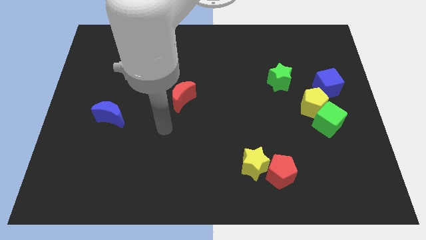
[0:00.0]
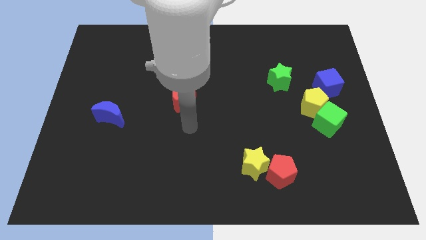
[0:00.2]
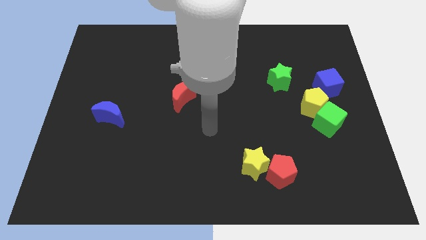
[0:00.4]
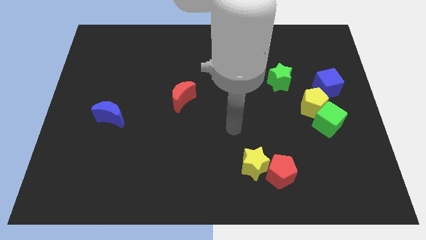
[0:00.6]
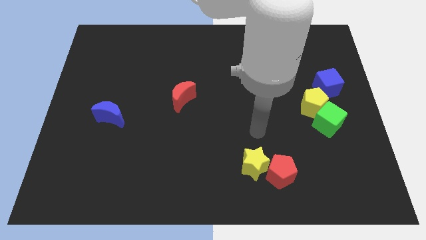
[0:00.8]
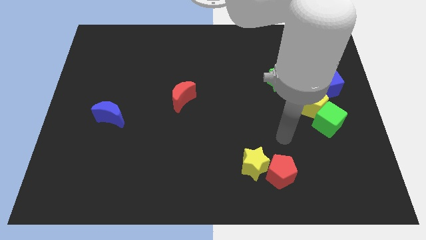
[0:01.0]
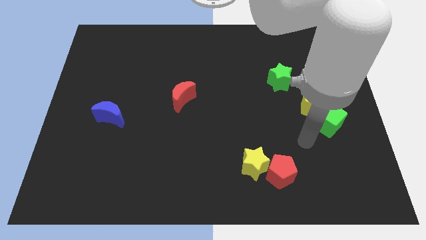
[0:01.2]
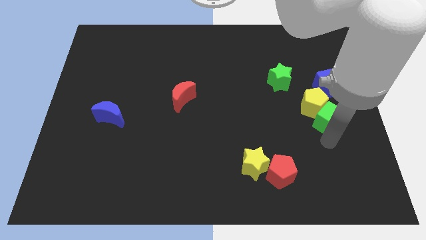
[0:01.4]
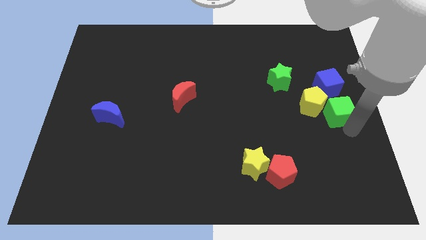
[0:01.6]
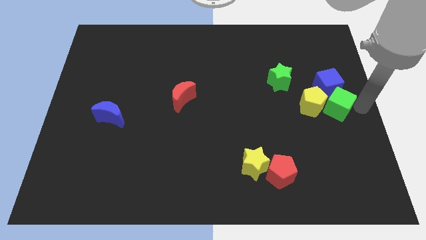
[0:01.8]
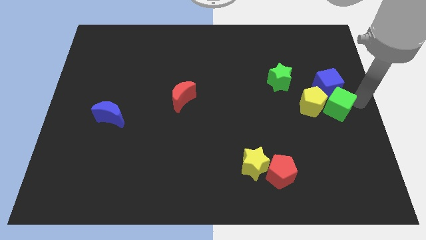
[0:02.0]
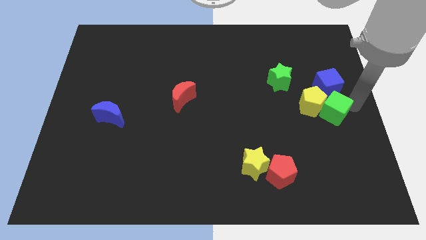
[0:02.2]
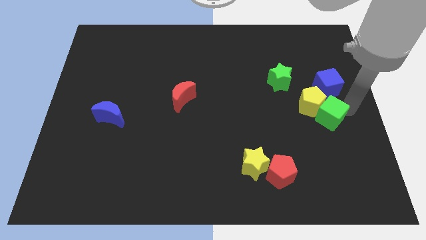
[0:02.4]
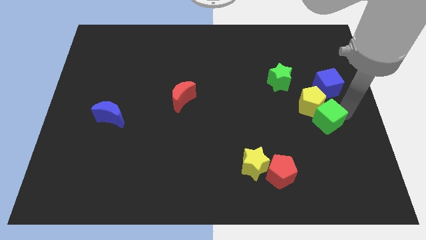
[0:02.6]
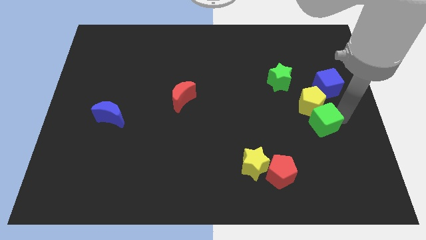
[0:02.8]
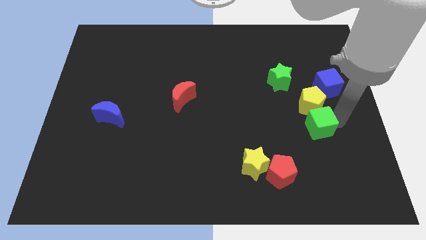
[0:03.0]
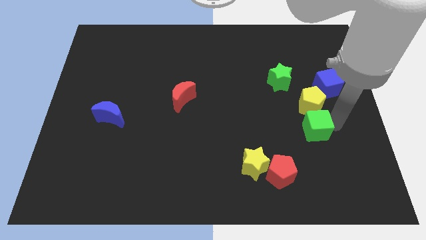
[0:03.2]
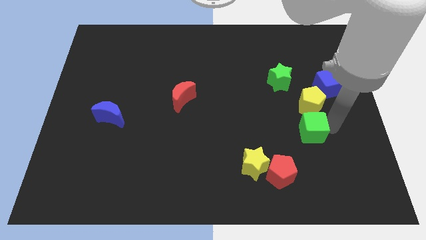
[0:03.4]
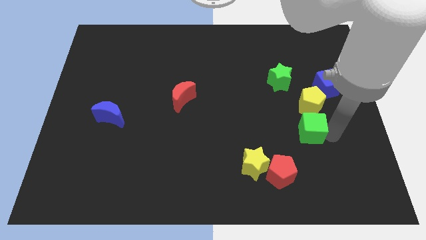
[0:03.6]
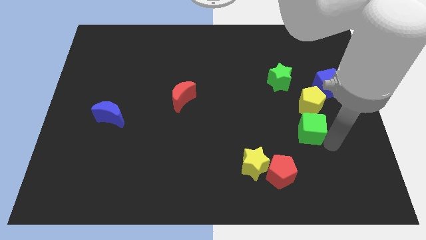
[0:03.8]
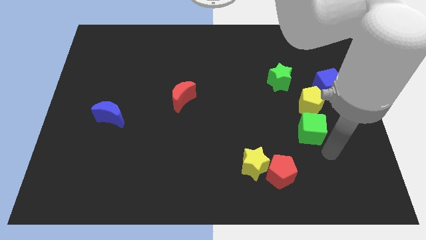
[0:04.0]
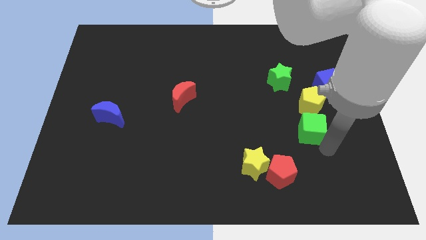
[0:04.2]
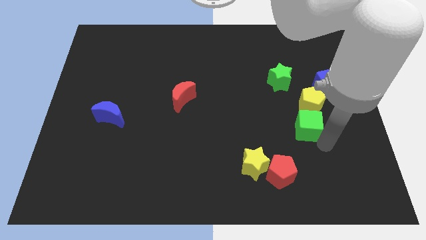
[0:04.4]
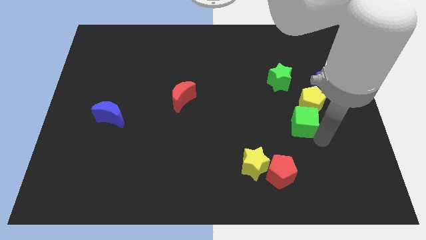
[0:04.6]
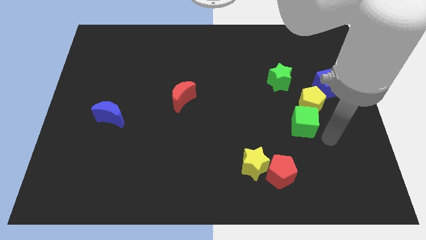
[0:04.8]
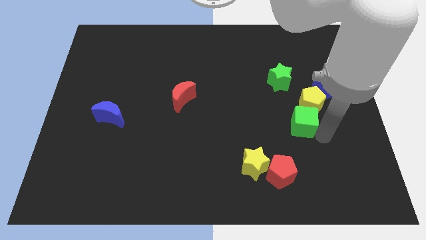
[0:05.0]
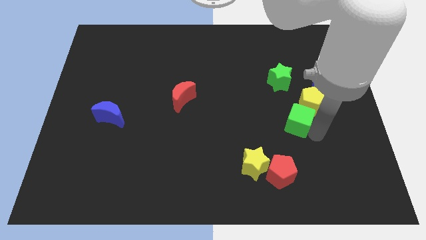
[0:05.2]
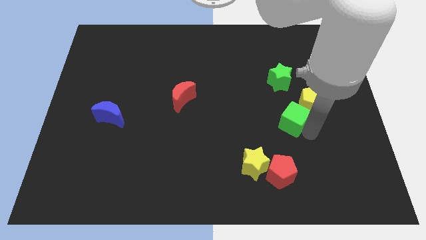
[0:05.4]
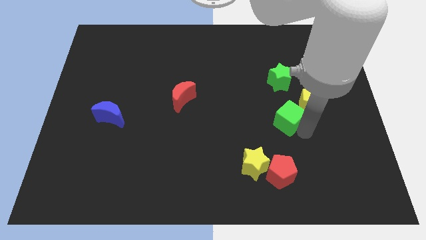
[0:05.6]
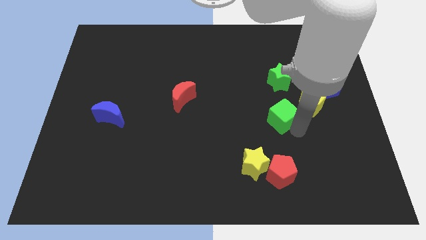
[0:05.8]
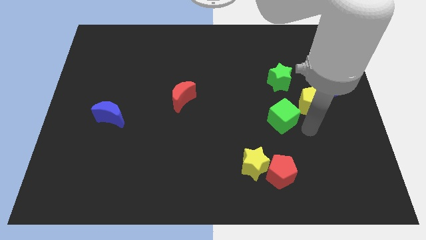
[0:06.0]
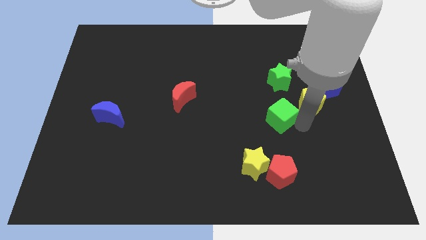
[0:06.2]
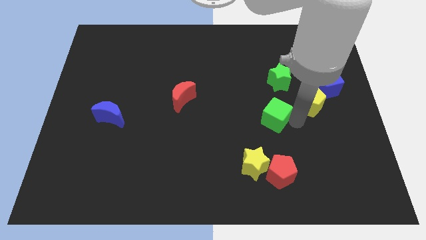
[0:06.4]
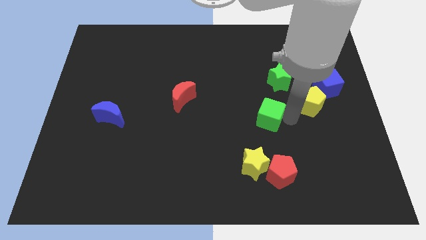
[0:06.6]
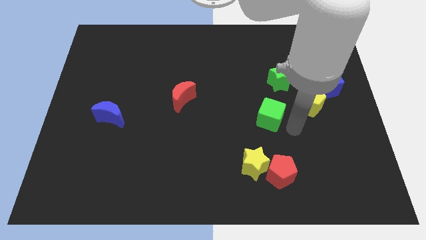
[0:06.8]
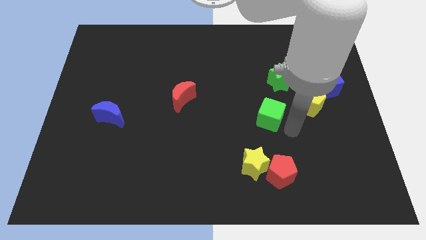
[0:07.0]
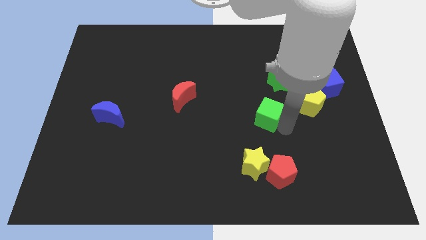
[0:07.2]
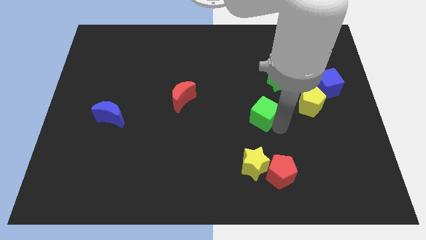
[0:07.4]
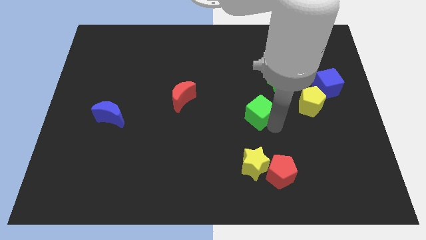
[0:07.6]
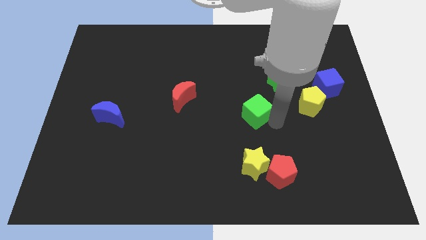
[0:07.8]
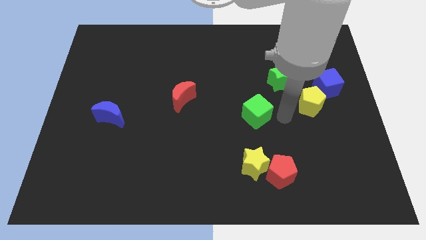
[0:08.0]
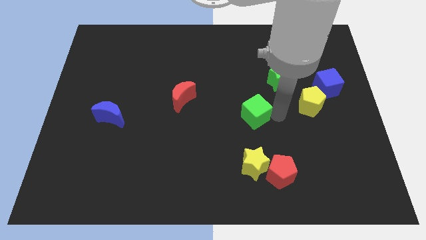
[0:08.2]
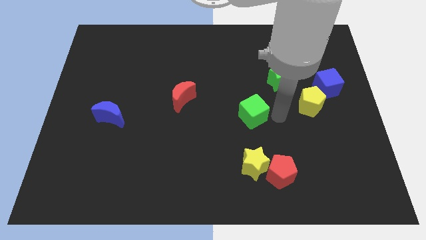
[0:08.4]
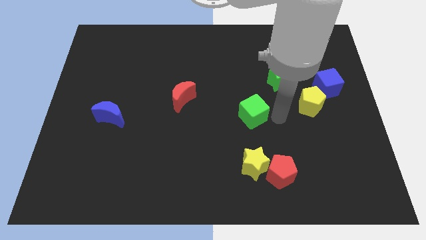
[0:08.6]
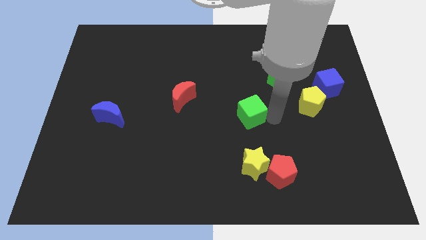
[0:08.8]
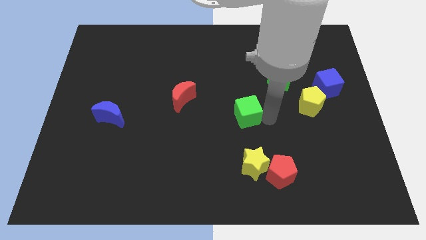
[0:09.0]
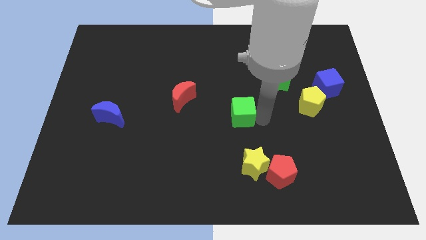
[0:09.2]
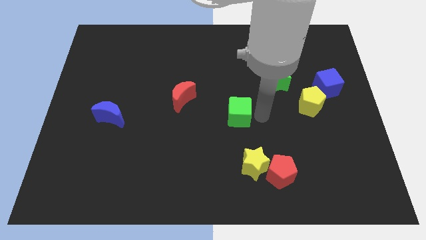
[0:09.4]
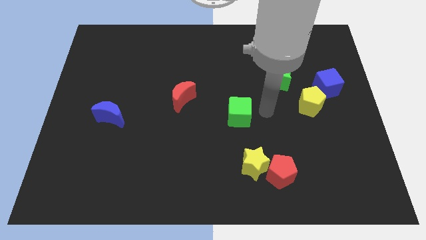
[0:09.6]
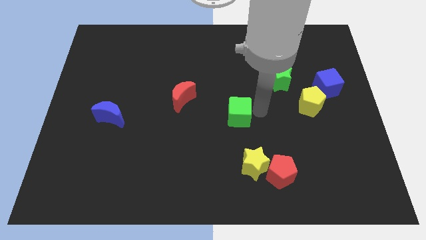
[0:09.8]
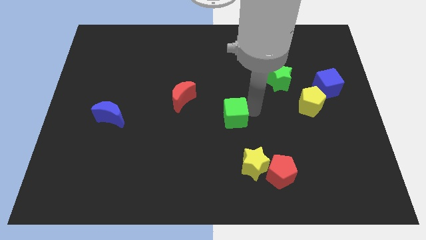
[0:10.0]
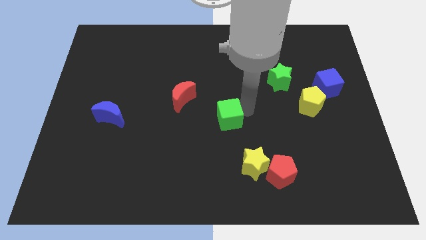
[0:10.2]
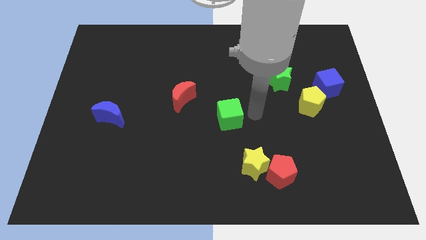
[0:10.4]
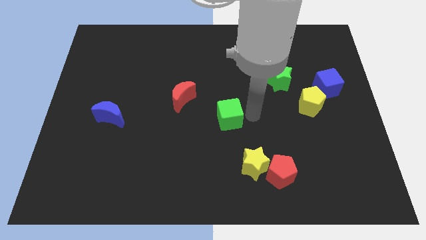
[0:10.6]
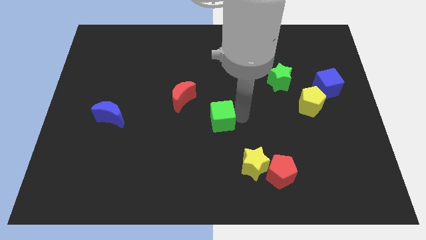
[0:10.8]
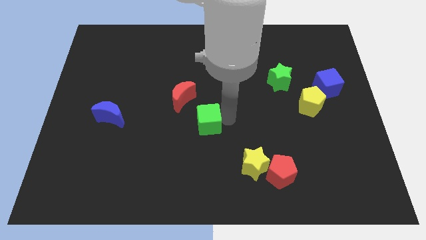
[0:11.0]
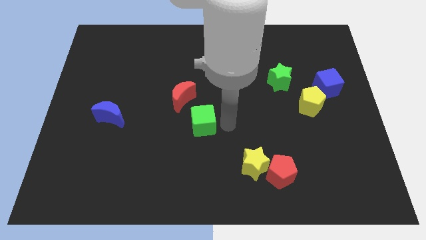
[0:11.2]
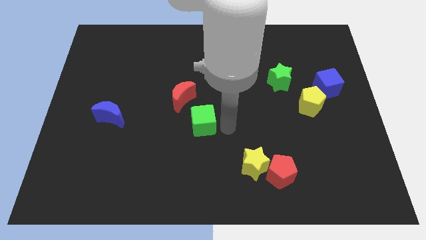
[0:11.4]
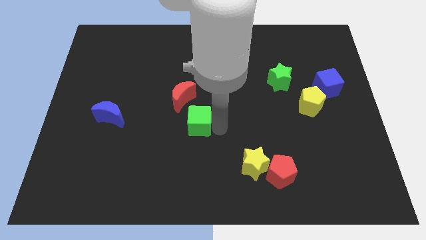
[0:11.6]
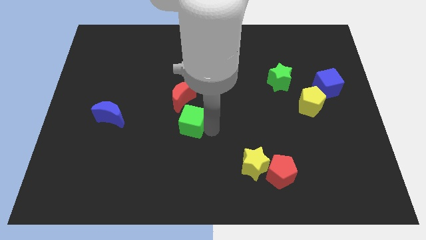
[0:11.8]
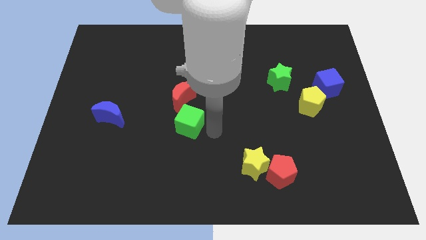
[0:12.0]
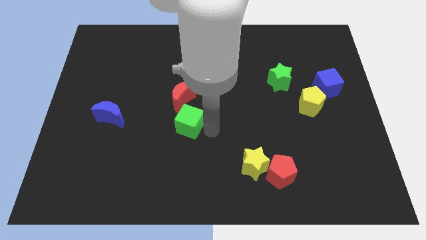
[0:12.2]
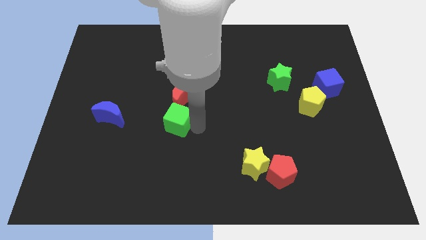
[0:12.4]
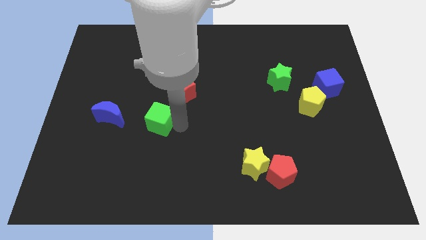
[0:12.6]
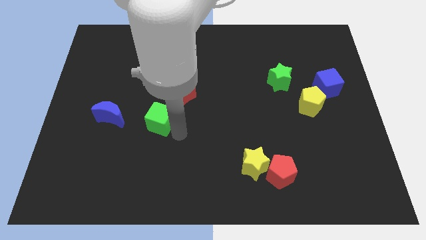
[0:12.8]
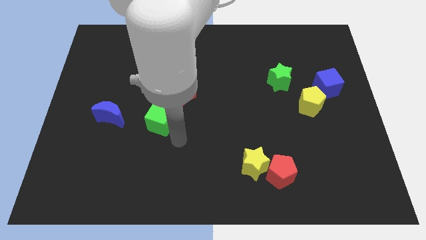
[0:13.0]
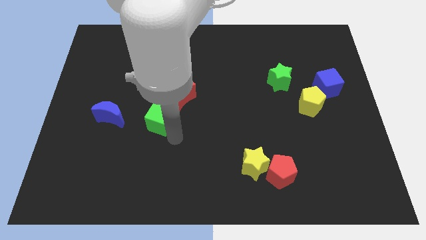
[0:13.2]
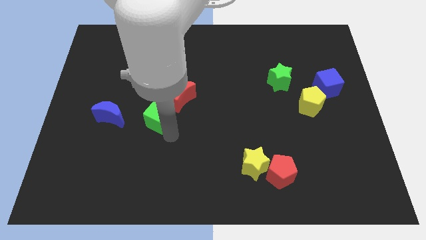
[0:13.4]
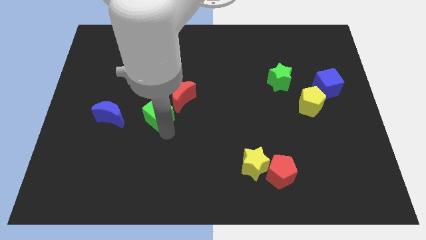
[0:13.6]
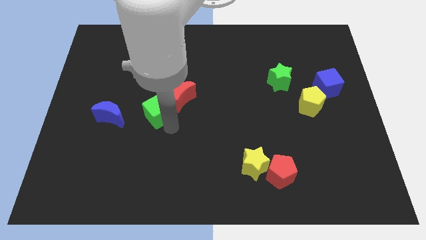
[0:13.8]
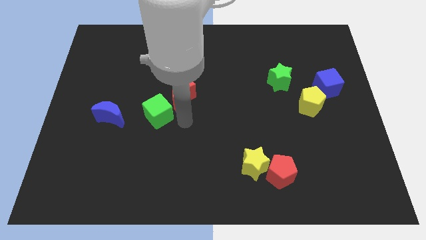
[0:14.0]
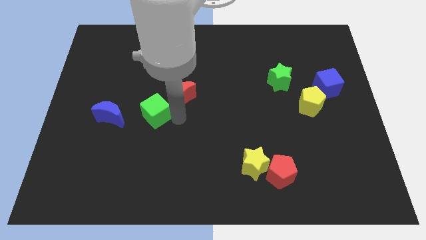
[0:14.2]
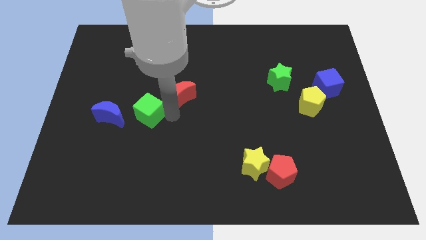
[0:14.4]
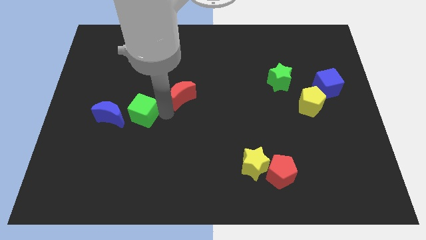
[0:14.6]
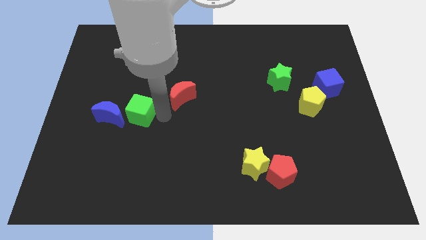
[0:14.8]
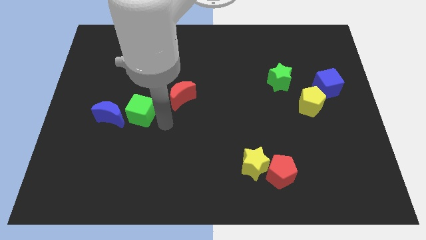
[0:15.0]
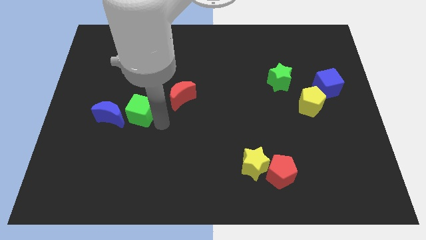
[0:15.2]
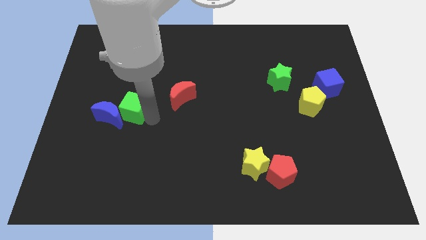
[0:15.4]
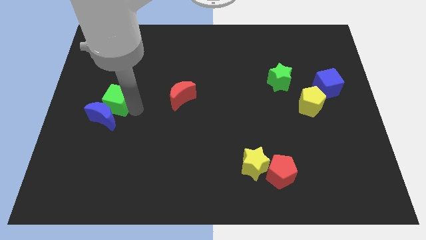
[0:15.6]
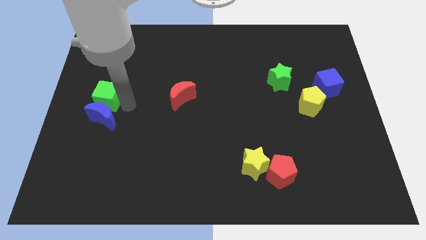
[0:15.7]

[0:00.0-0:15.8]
put the green cube to the top left of the blue moon
